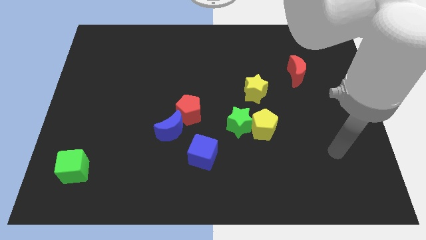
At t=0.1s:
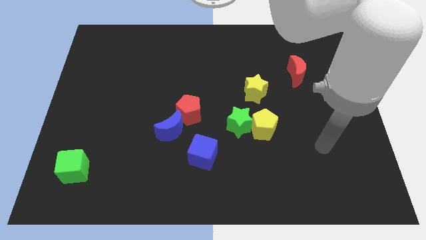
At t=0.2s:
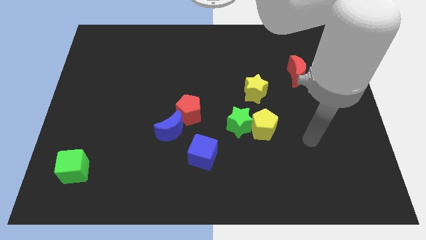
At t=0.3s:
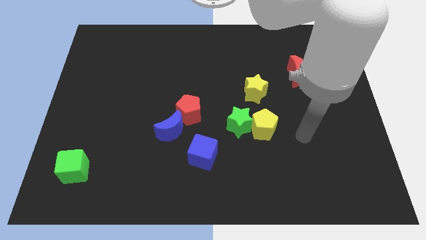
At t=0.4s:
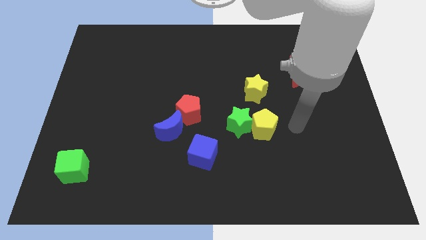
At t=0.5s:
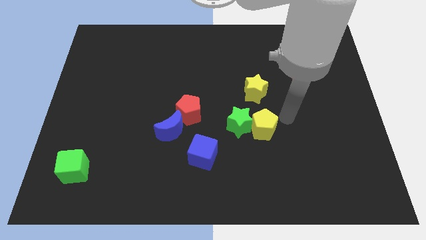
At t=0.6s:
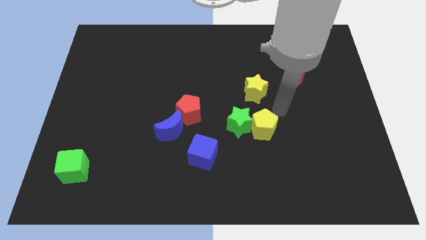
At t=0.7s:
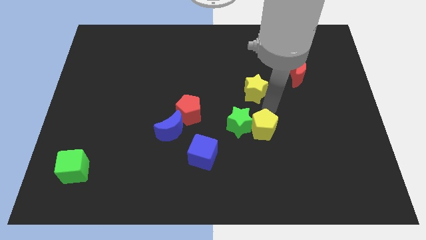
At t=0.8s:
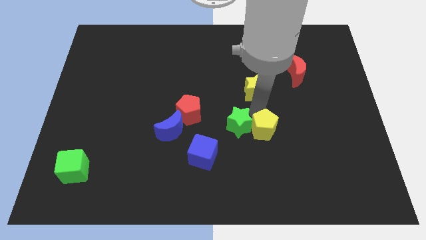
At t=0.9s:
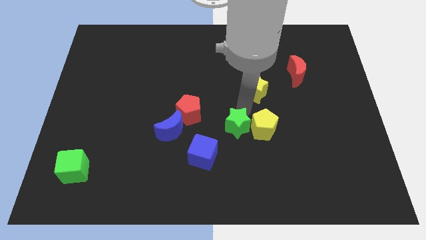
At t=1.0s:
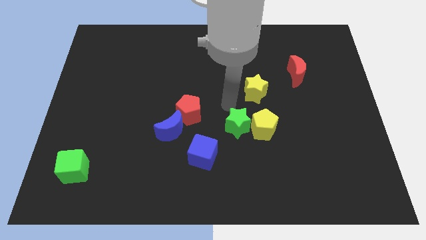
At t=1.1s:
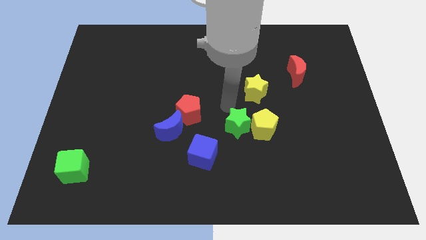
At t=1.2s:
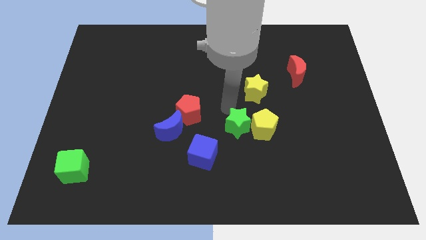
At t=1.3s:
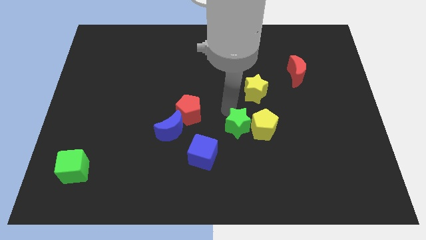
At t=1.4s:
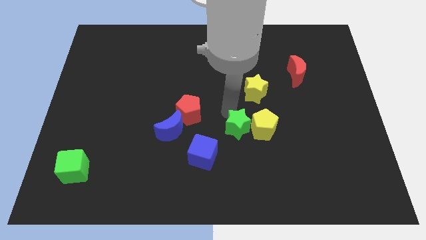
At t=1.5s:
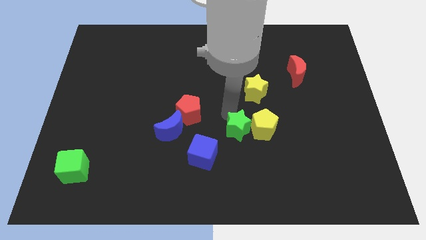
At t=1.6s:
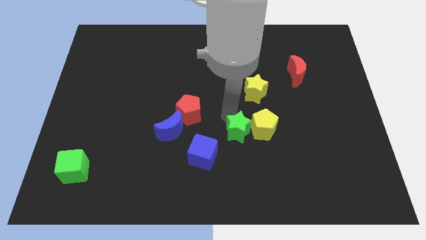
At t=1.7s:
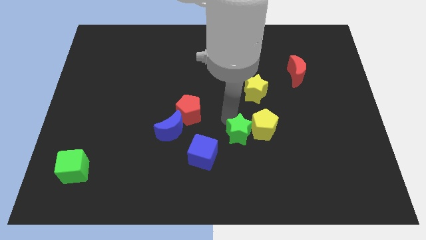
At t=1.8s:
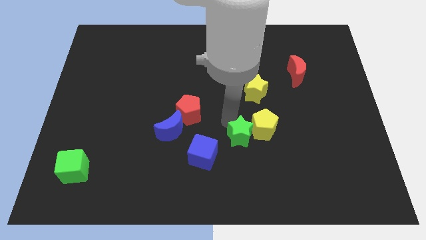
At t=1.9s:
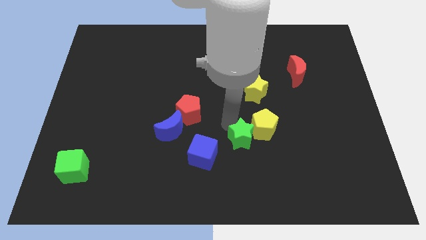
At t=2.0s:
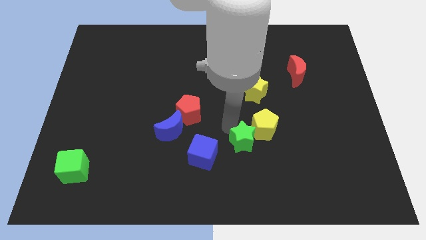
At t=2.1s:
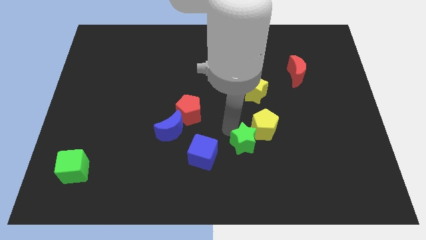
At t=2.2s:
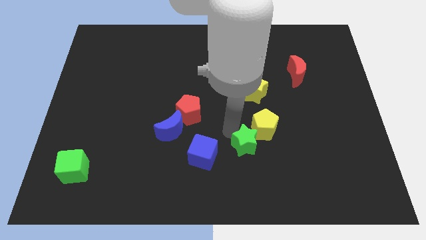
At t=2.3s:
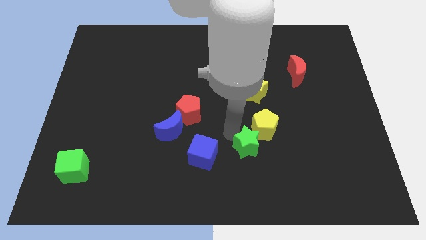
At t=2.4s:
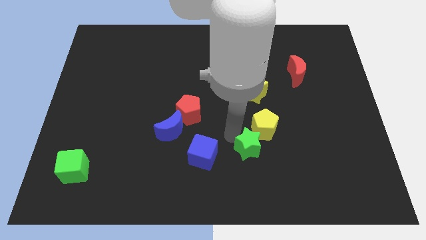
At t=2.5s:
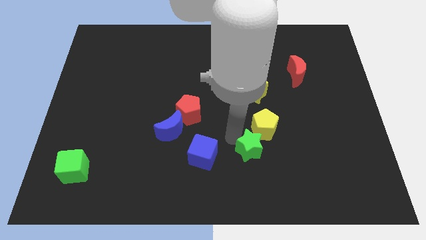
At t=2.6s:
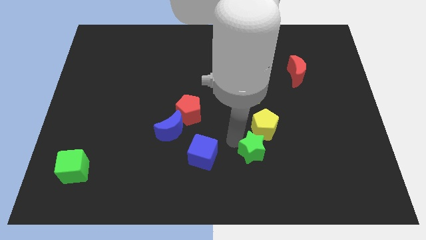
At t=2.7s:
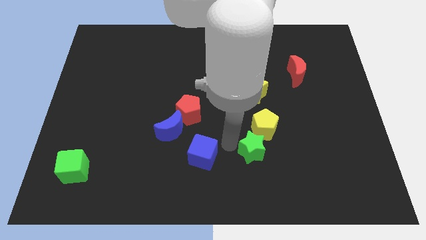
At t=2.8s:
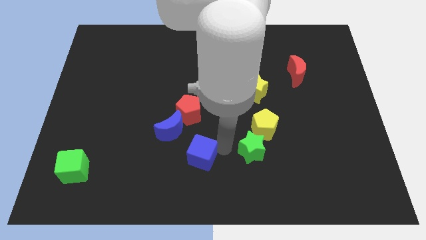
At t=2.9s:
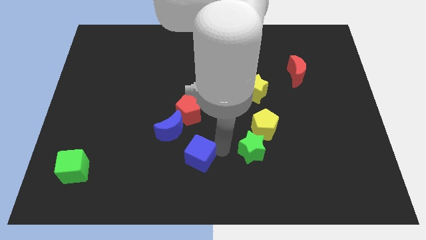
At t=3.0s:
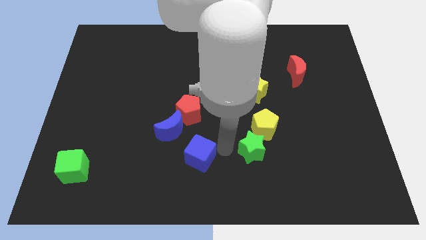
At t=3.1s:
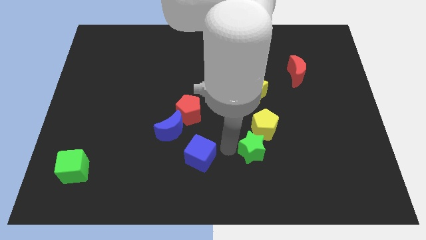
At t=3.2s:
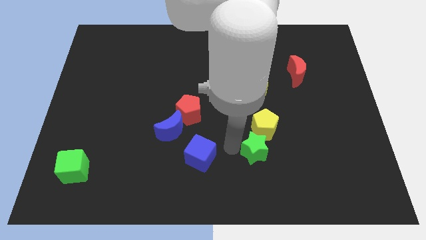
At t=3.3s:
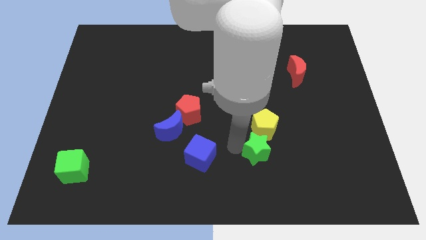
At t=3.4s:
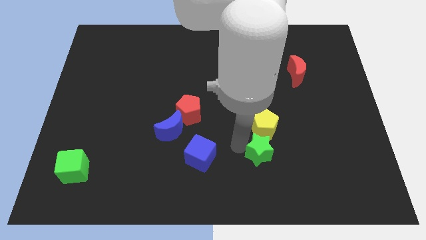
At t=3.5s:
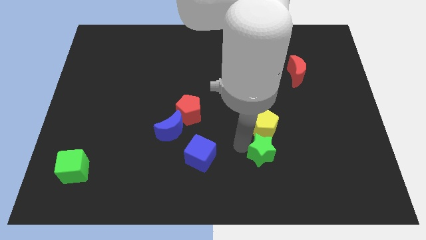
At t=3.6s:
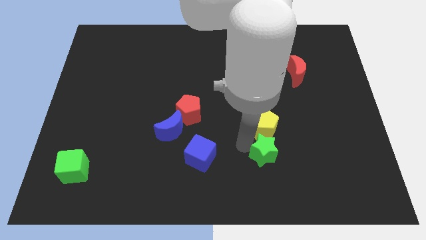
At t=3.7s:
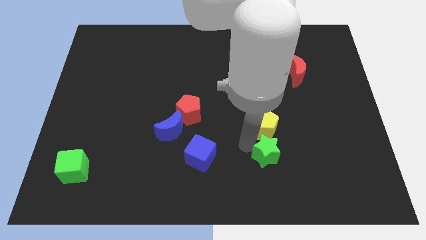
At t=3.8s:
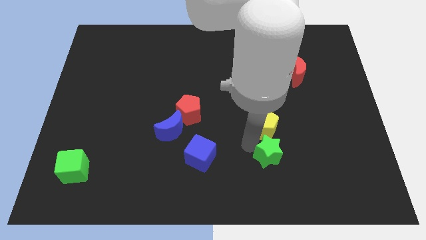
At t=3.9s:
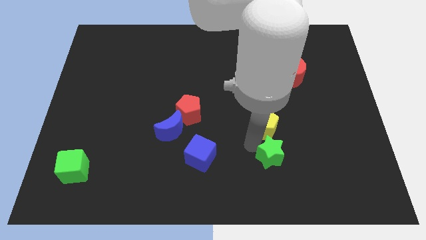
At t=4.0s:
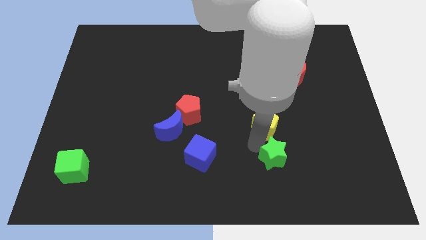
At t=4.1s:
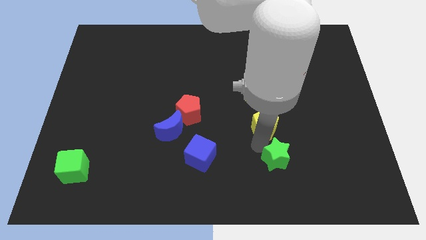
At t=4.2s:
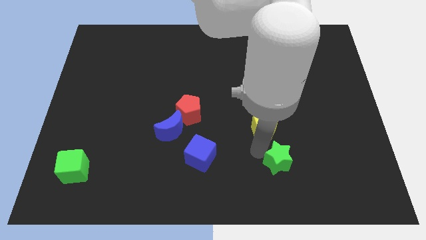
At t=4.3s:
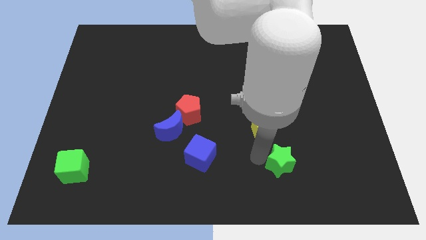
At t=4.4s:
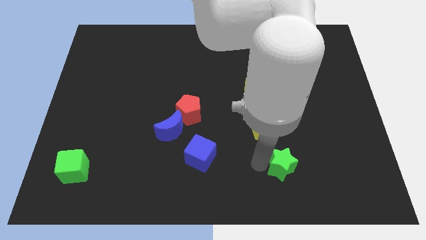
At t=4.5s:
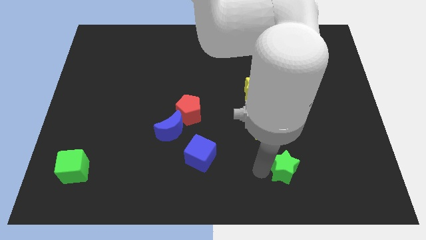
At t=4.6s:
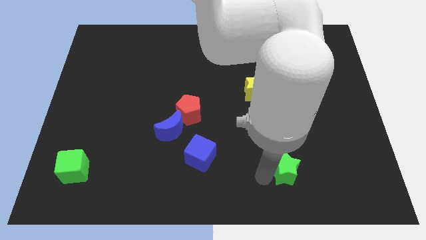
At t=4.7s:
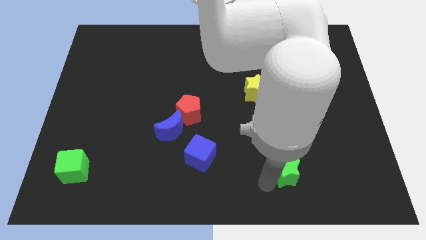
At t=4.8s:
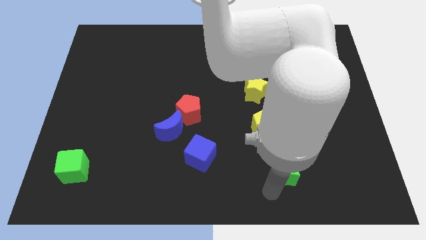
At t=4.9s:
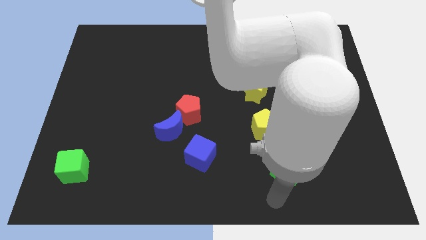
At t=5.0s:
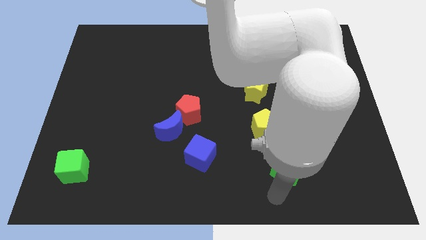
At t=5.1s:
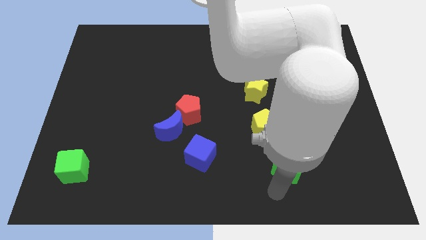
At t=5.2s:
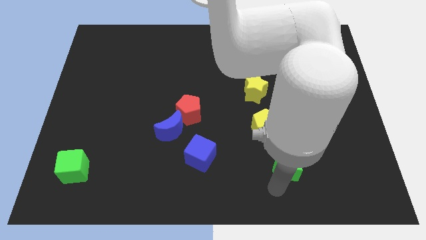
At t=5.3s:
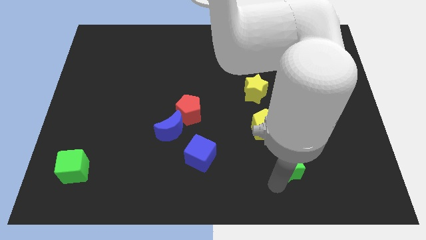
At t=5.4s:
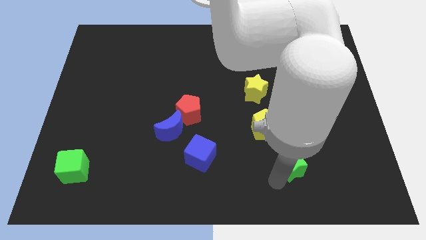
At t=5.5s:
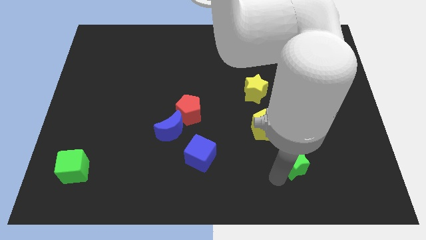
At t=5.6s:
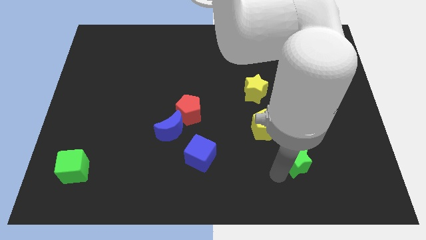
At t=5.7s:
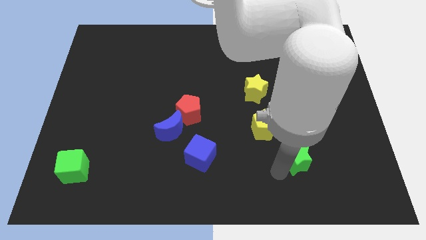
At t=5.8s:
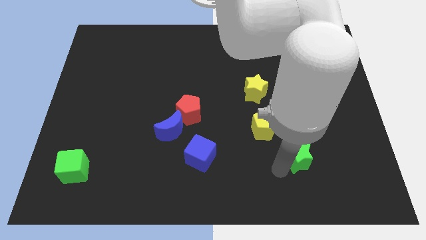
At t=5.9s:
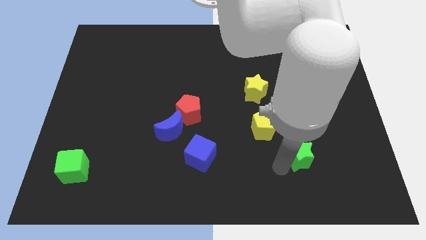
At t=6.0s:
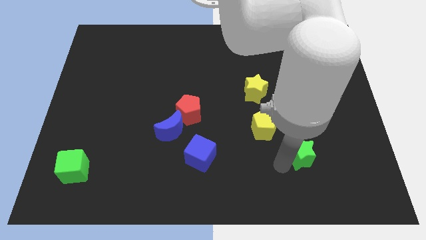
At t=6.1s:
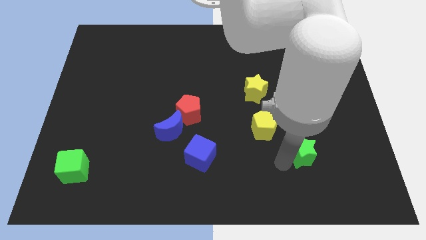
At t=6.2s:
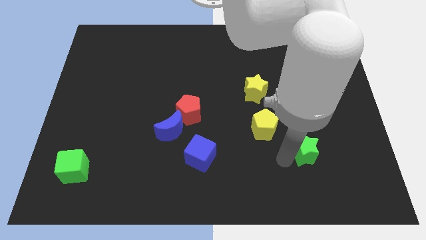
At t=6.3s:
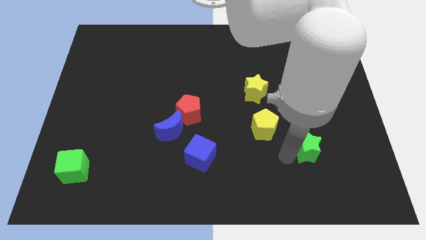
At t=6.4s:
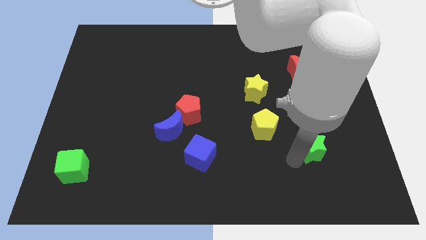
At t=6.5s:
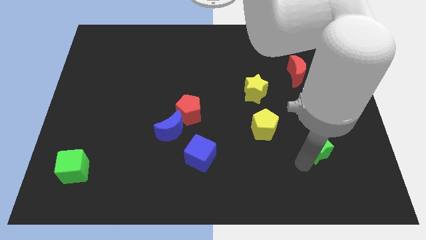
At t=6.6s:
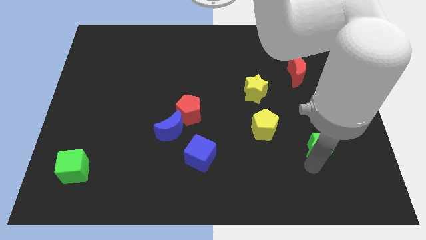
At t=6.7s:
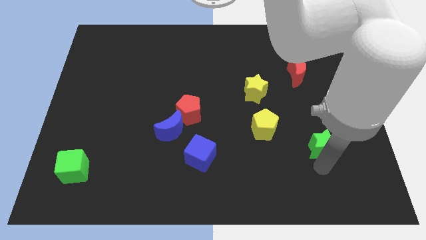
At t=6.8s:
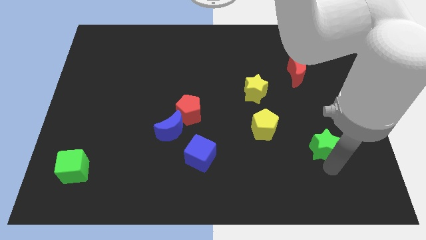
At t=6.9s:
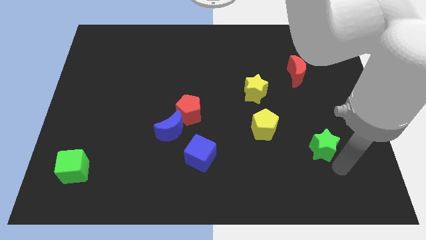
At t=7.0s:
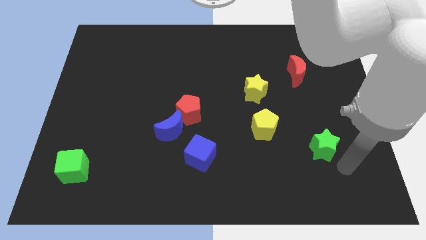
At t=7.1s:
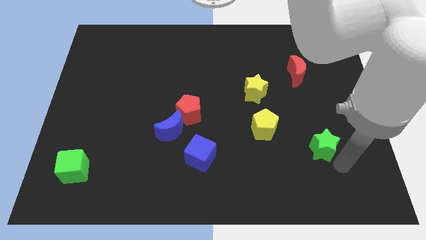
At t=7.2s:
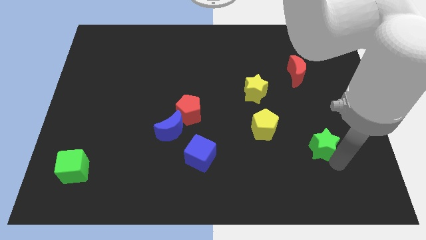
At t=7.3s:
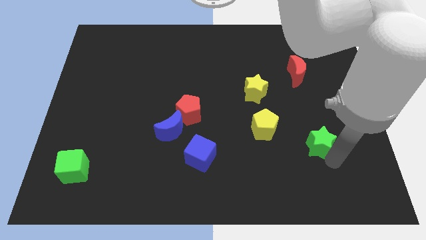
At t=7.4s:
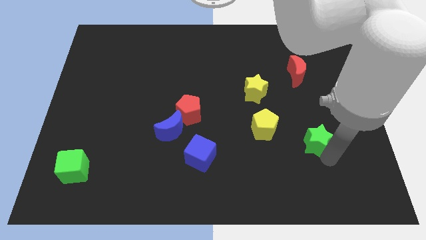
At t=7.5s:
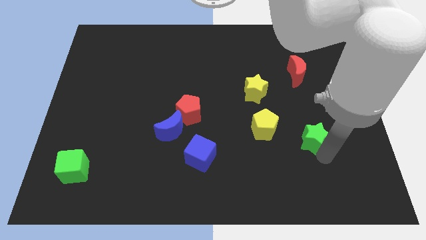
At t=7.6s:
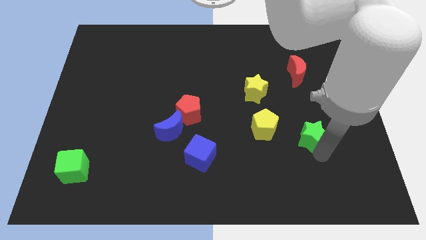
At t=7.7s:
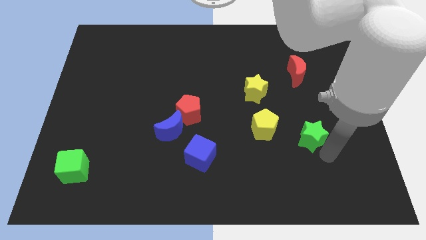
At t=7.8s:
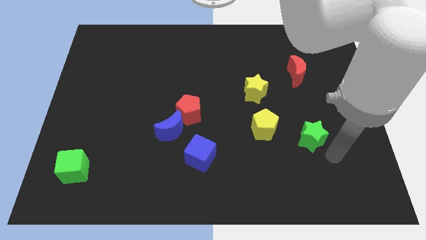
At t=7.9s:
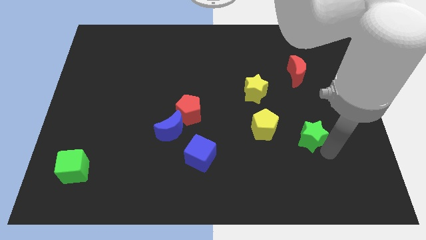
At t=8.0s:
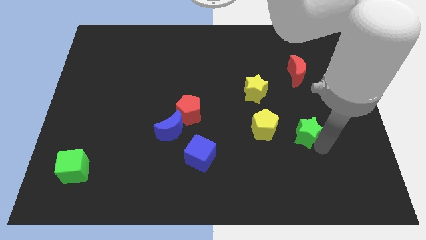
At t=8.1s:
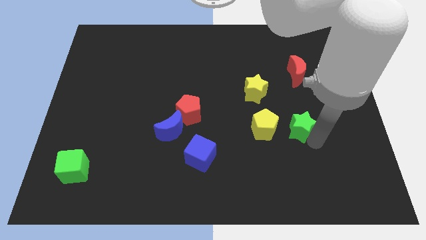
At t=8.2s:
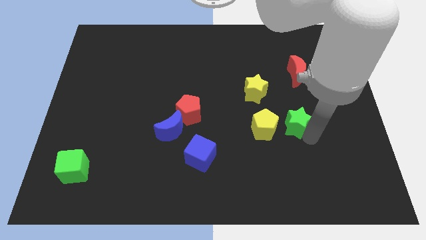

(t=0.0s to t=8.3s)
slide the green star to the top right side of the yellow pentagon
